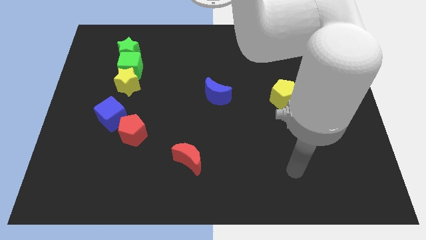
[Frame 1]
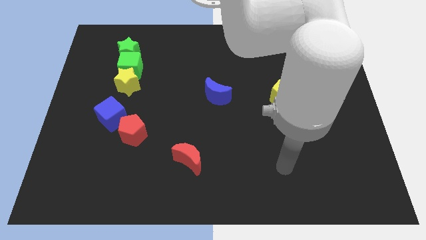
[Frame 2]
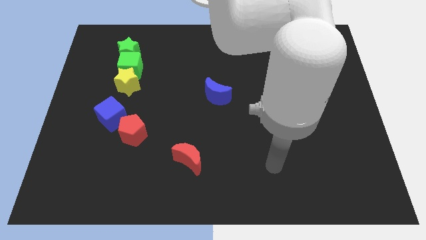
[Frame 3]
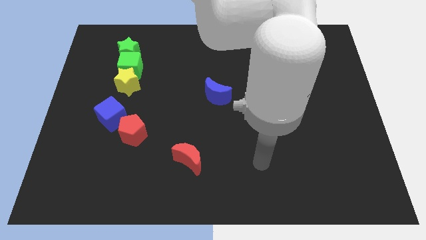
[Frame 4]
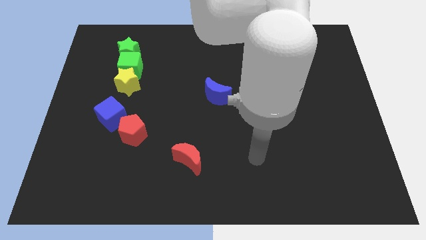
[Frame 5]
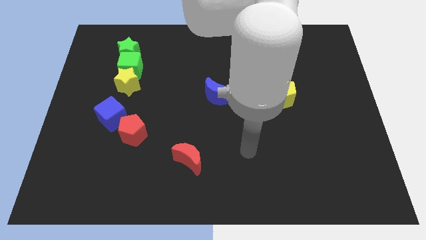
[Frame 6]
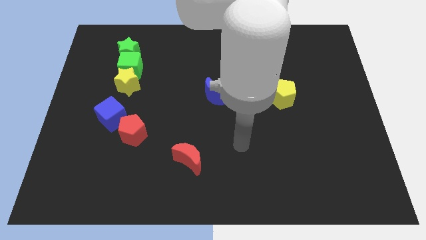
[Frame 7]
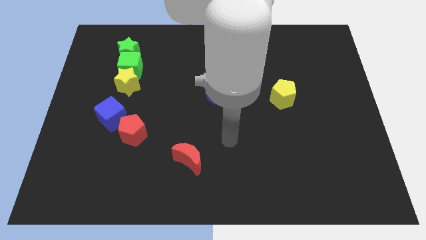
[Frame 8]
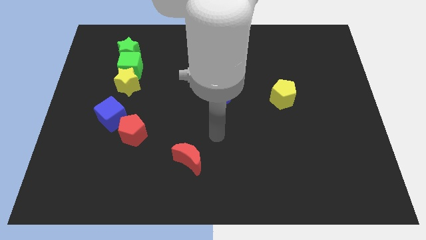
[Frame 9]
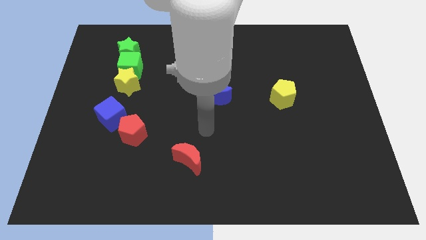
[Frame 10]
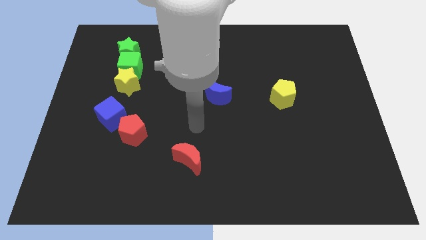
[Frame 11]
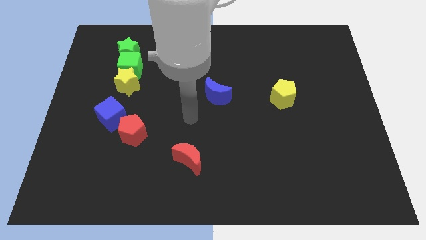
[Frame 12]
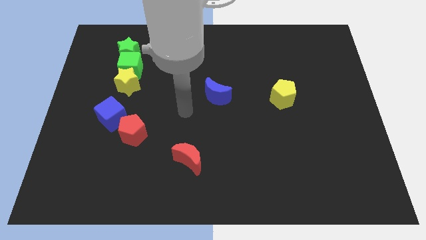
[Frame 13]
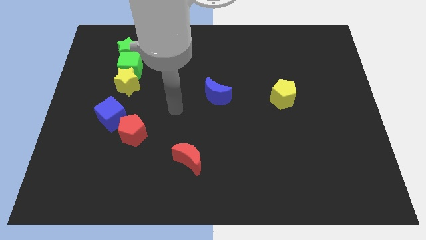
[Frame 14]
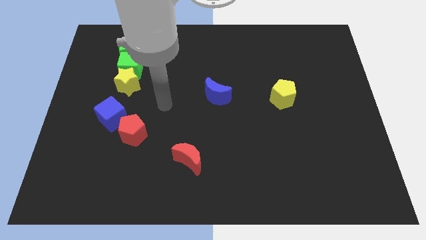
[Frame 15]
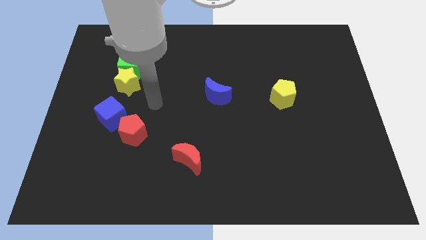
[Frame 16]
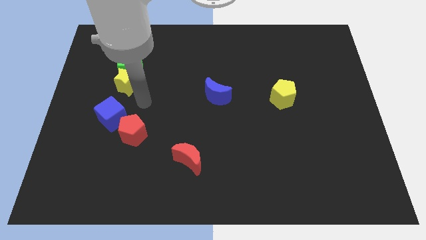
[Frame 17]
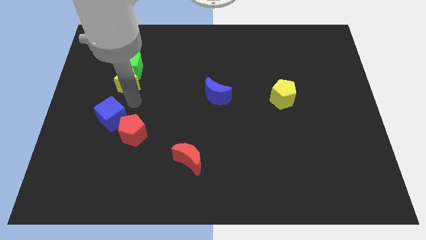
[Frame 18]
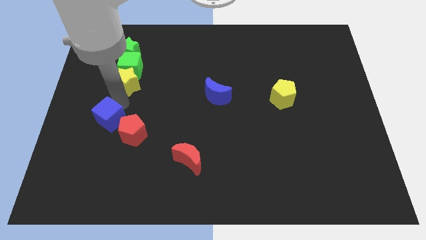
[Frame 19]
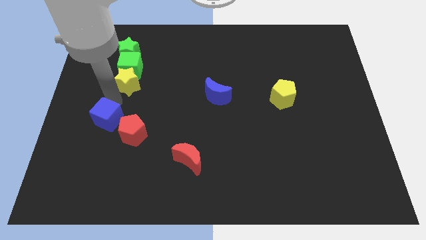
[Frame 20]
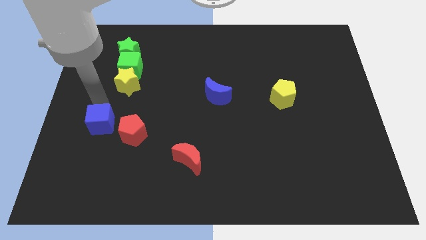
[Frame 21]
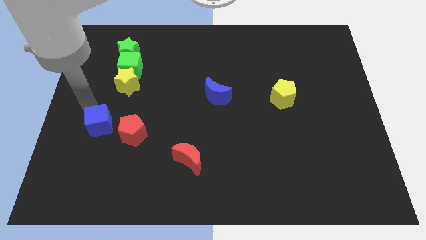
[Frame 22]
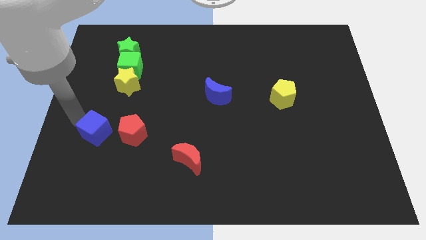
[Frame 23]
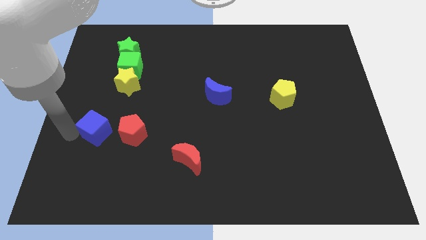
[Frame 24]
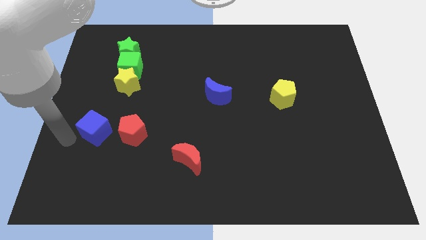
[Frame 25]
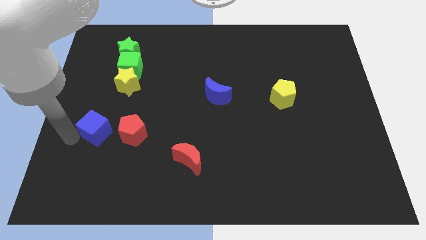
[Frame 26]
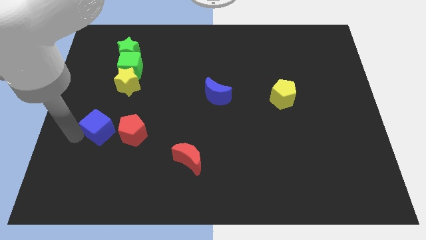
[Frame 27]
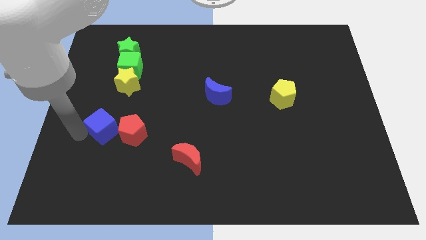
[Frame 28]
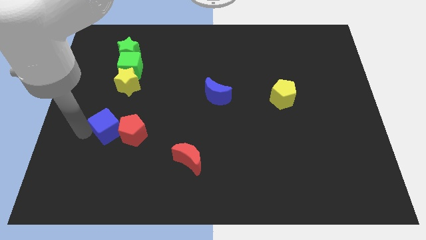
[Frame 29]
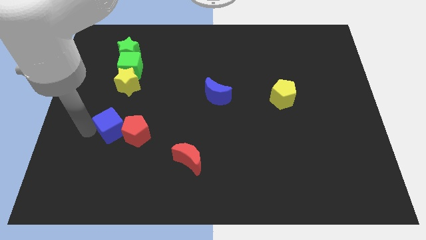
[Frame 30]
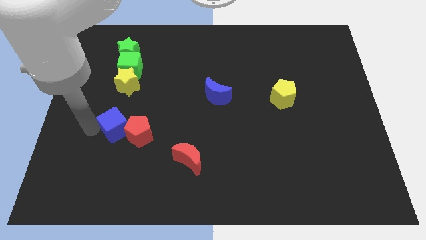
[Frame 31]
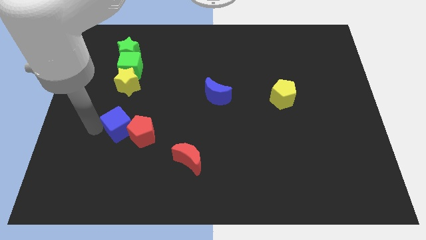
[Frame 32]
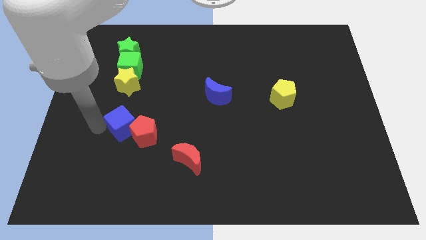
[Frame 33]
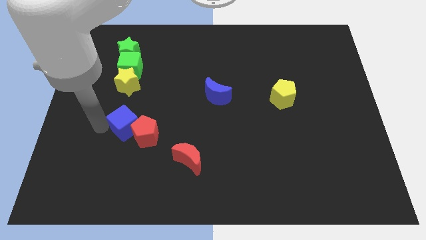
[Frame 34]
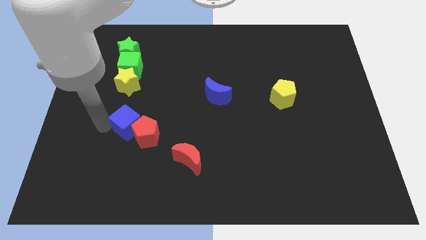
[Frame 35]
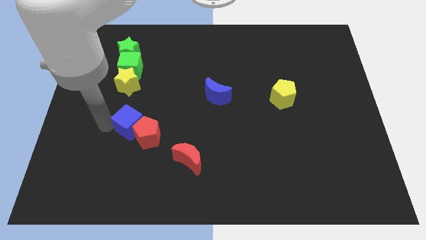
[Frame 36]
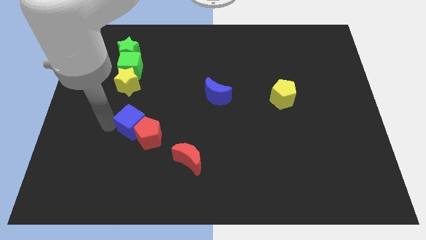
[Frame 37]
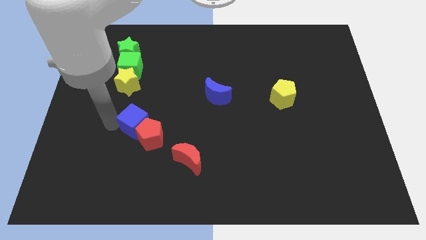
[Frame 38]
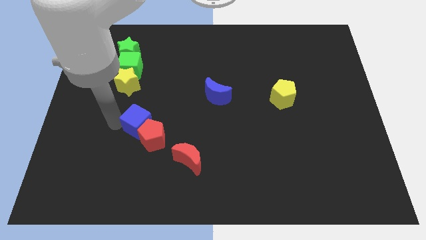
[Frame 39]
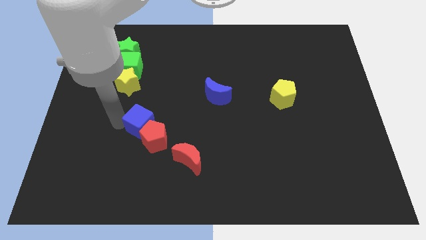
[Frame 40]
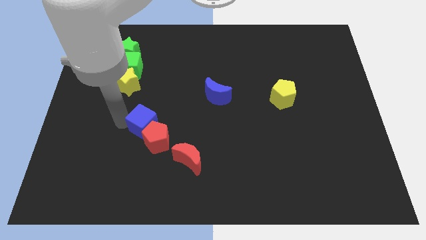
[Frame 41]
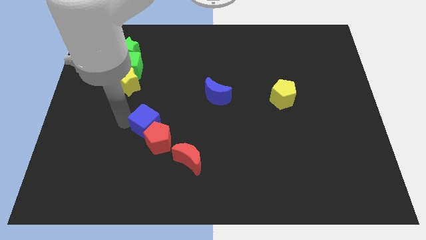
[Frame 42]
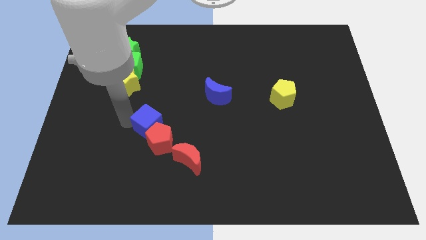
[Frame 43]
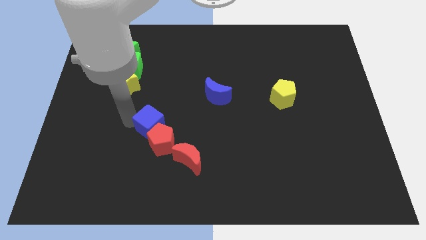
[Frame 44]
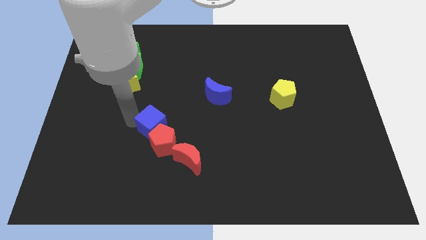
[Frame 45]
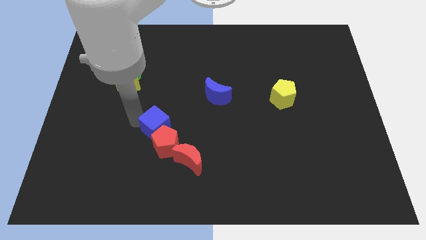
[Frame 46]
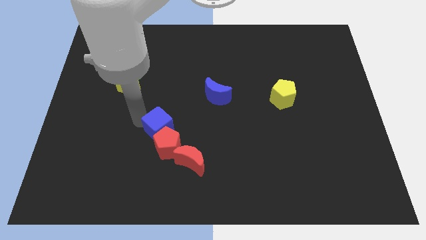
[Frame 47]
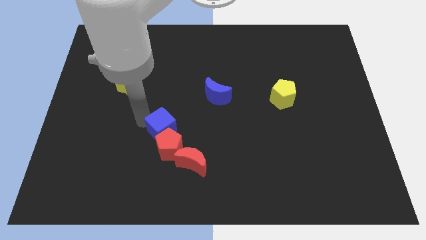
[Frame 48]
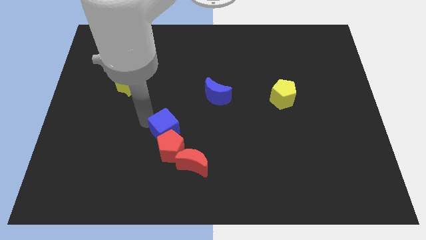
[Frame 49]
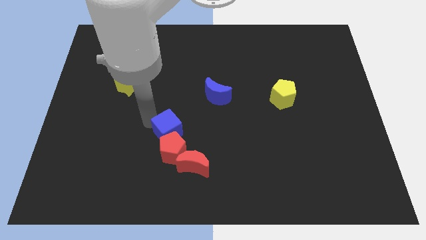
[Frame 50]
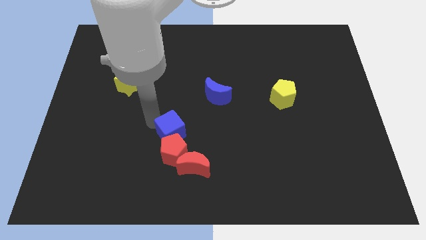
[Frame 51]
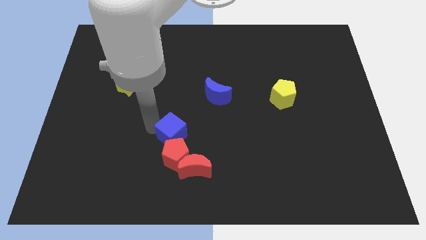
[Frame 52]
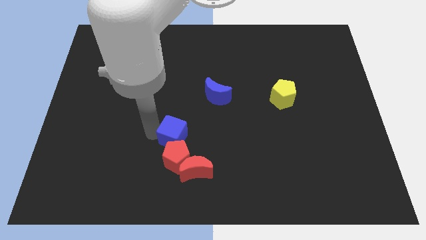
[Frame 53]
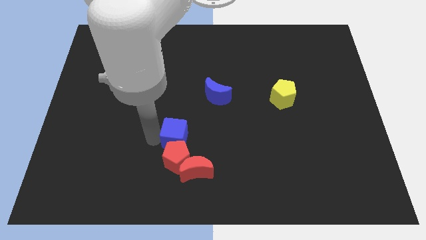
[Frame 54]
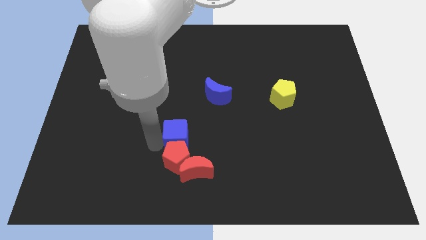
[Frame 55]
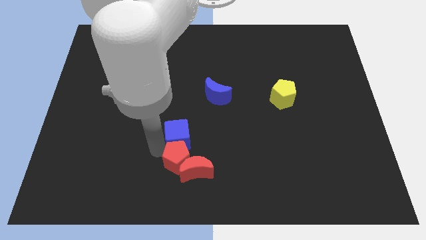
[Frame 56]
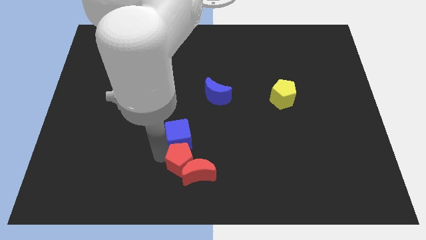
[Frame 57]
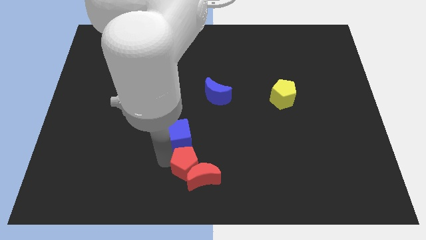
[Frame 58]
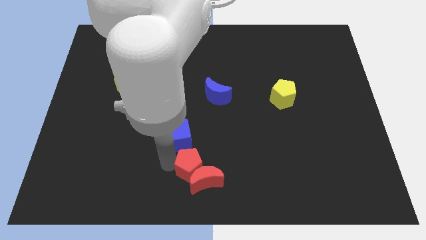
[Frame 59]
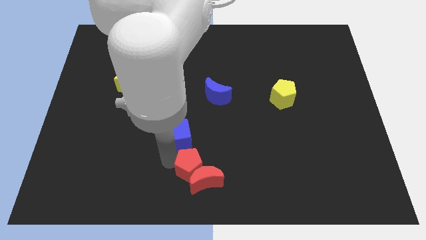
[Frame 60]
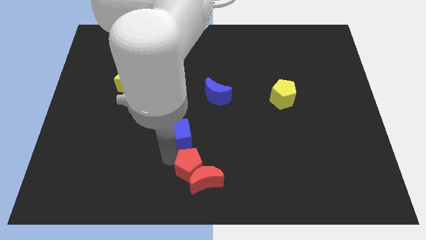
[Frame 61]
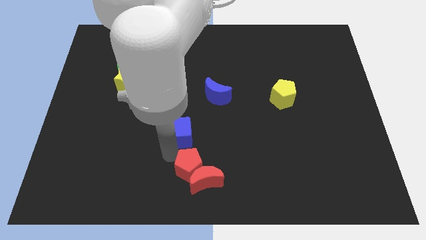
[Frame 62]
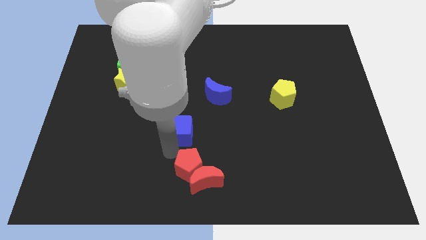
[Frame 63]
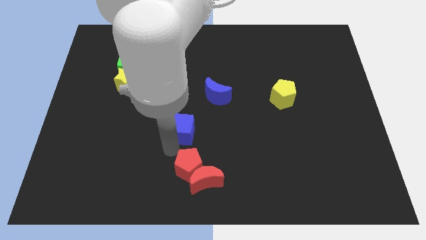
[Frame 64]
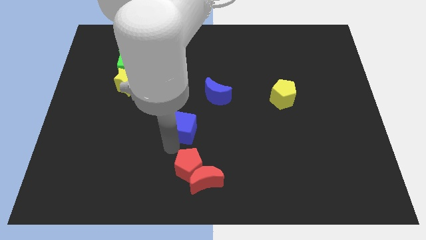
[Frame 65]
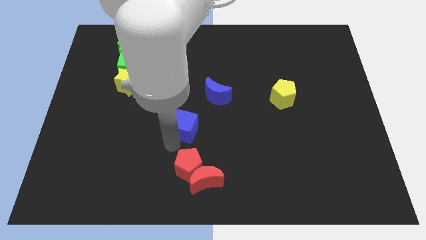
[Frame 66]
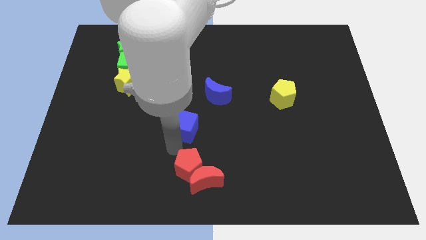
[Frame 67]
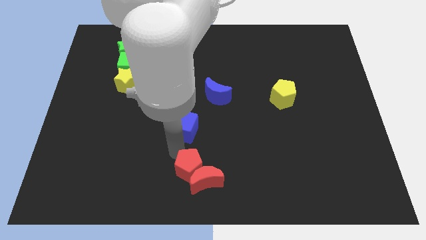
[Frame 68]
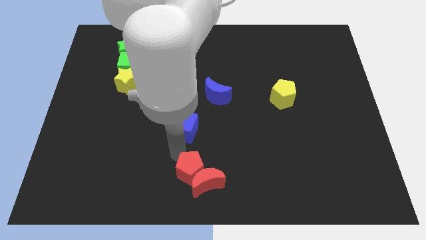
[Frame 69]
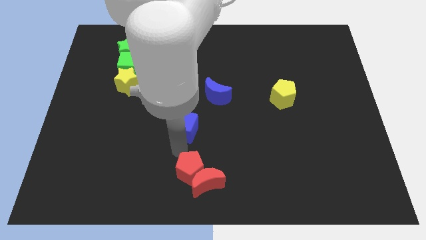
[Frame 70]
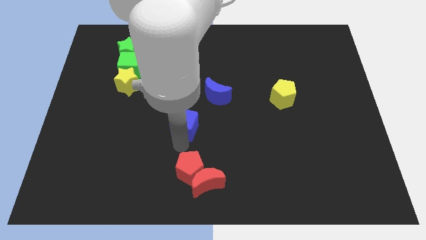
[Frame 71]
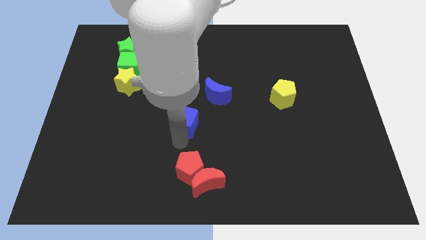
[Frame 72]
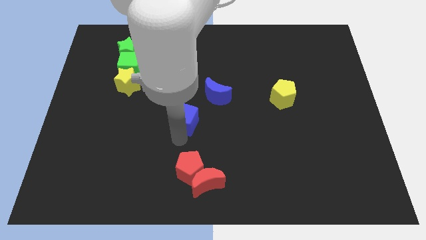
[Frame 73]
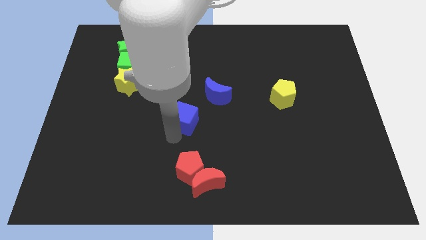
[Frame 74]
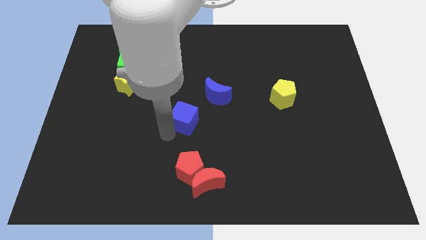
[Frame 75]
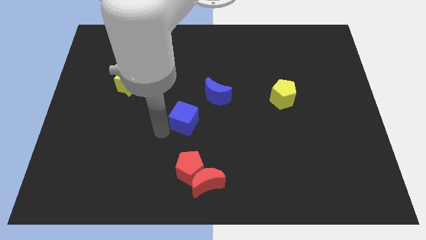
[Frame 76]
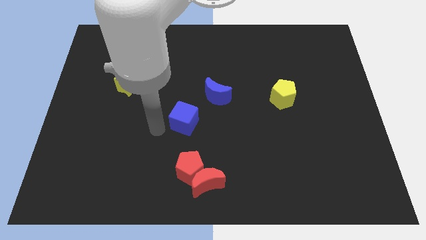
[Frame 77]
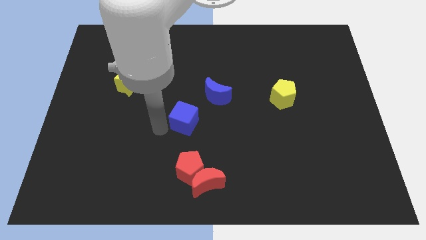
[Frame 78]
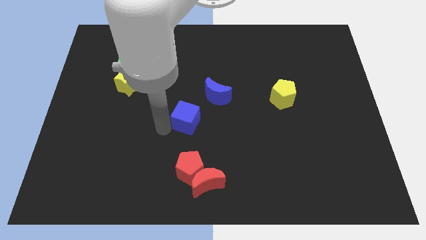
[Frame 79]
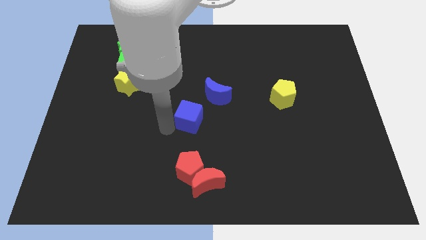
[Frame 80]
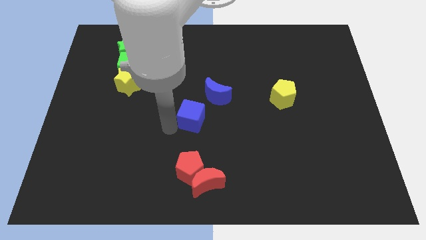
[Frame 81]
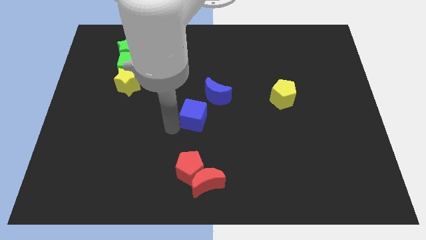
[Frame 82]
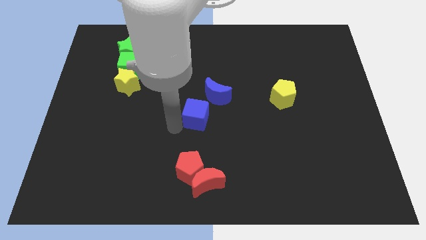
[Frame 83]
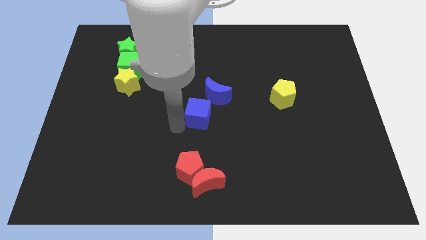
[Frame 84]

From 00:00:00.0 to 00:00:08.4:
slide the blue cube right
